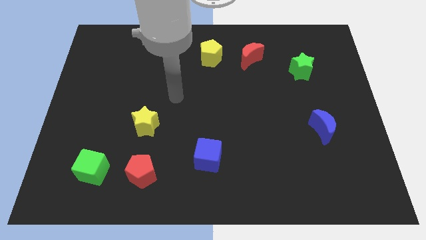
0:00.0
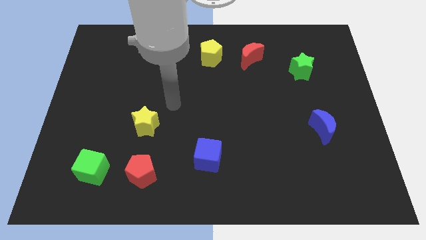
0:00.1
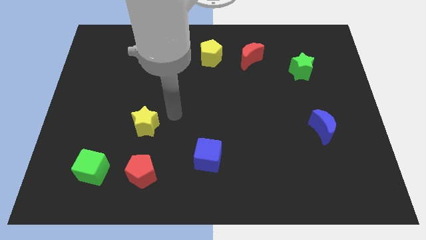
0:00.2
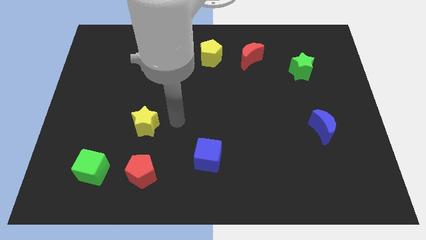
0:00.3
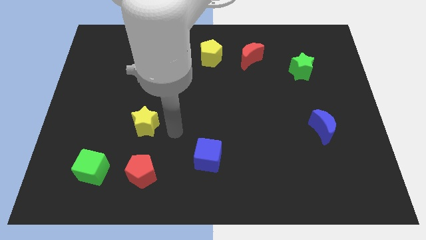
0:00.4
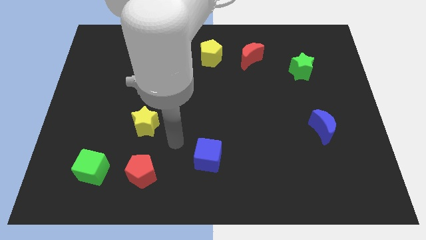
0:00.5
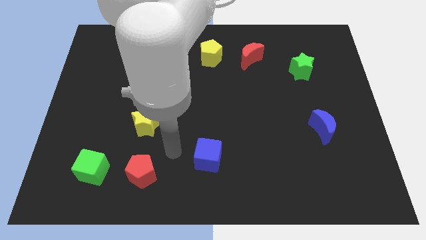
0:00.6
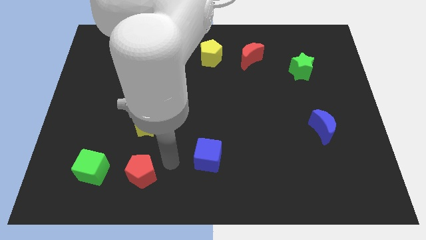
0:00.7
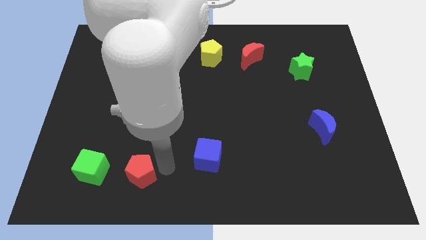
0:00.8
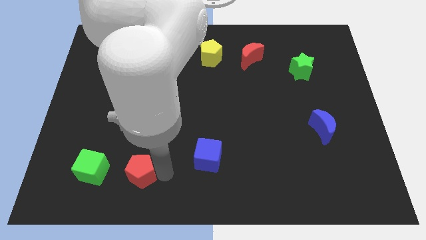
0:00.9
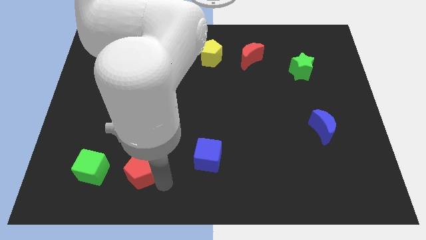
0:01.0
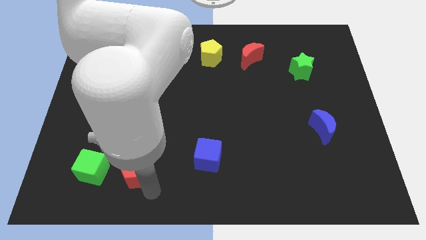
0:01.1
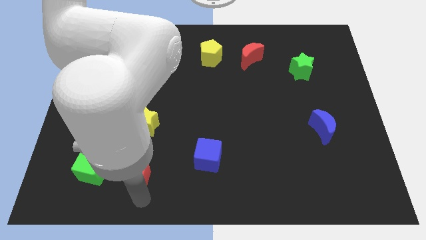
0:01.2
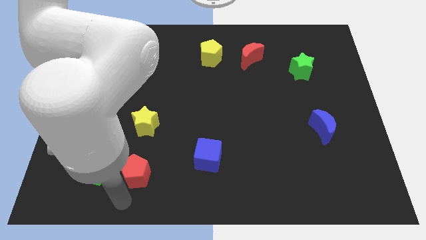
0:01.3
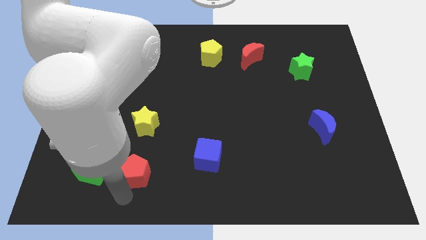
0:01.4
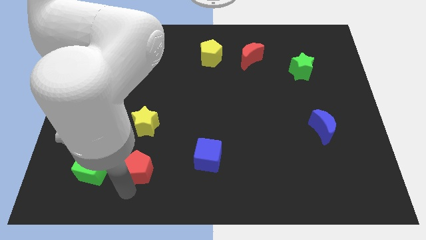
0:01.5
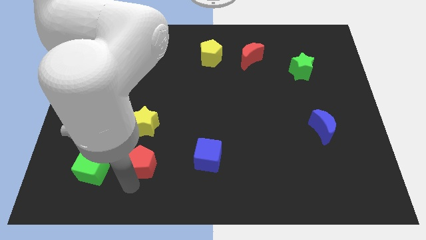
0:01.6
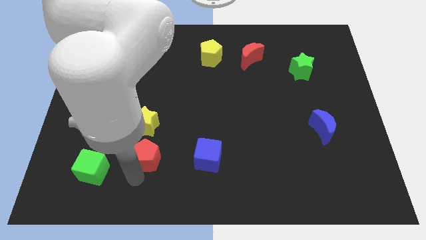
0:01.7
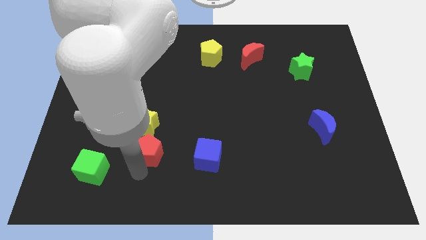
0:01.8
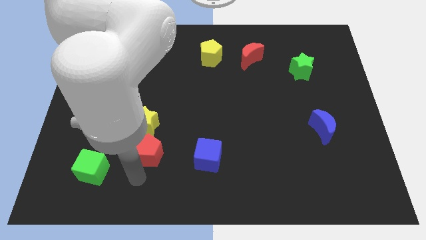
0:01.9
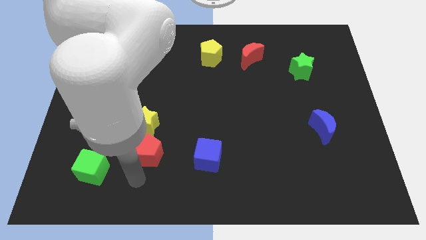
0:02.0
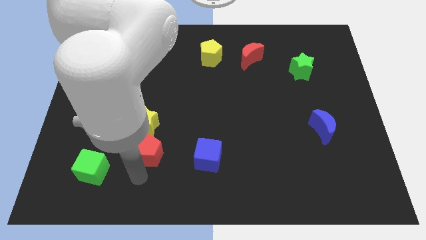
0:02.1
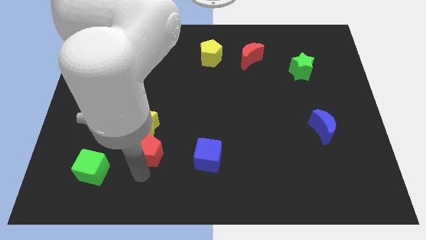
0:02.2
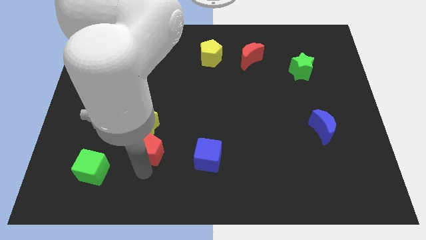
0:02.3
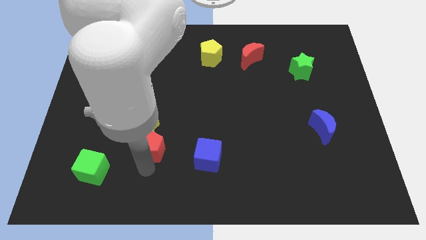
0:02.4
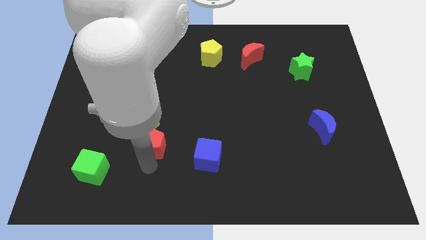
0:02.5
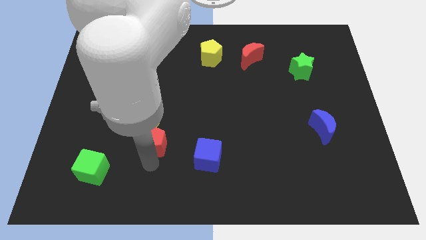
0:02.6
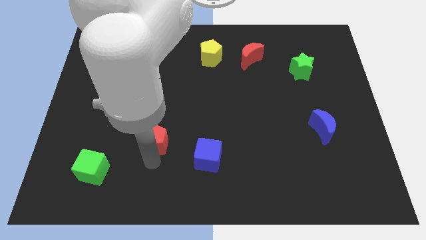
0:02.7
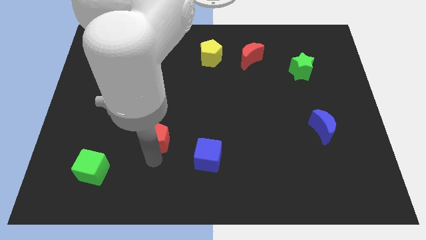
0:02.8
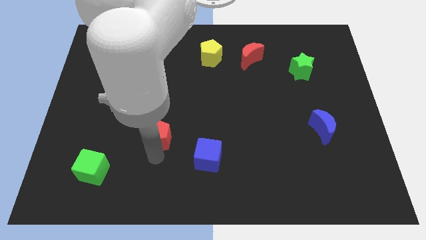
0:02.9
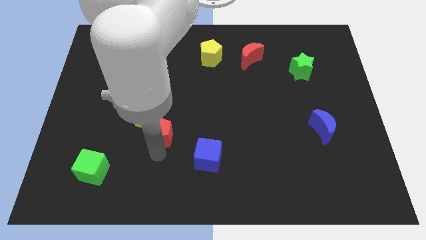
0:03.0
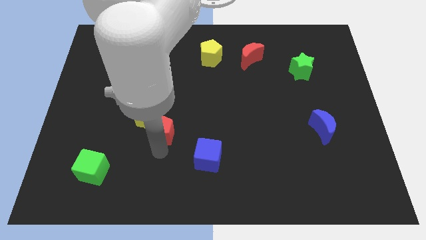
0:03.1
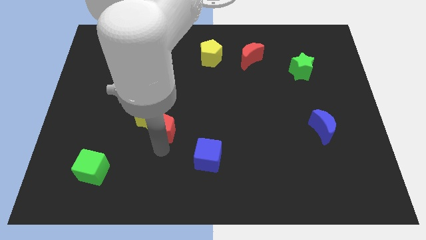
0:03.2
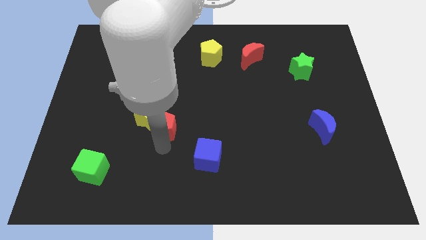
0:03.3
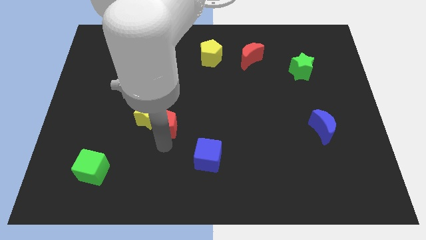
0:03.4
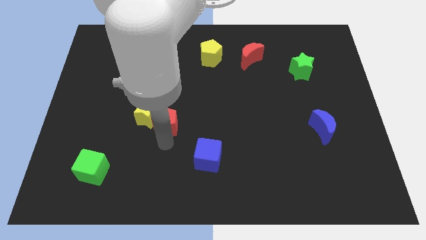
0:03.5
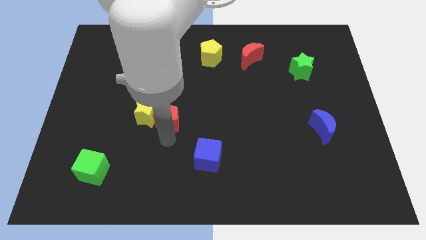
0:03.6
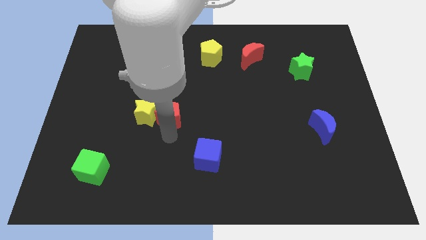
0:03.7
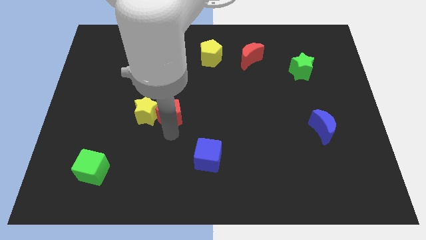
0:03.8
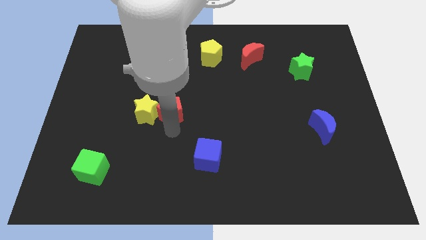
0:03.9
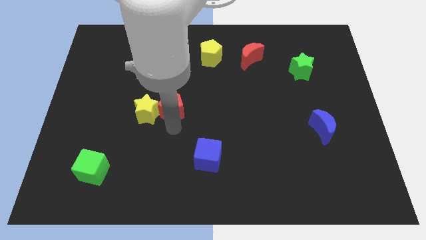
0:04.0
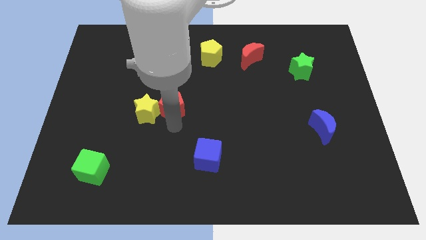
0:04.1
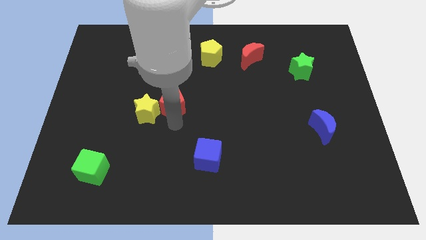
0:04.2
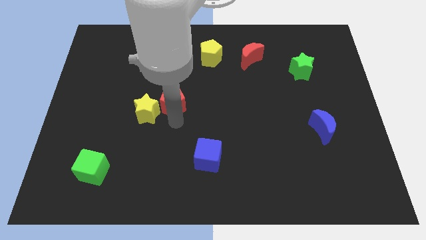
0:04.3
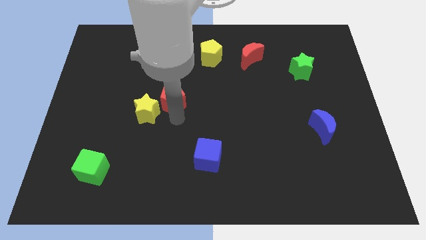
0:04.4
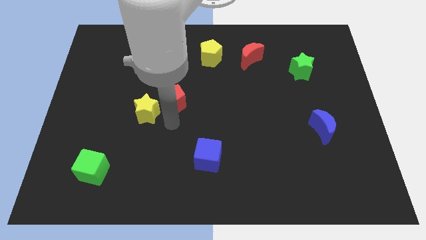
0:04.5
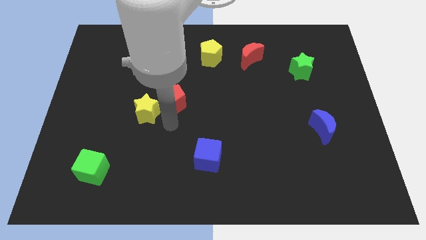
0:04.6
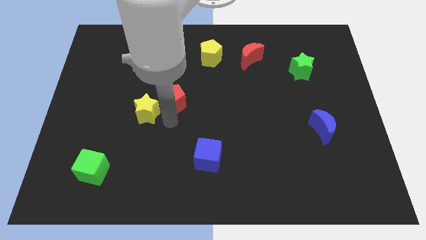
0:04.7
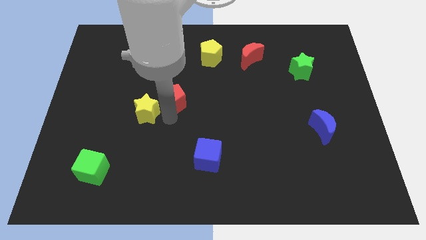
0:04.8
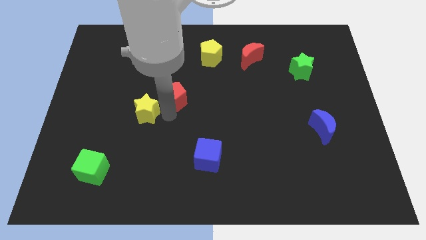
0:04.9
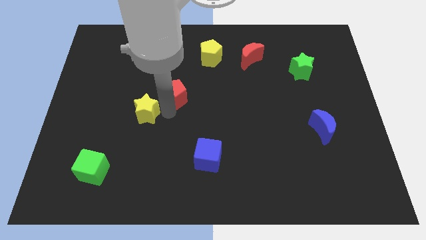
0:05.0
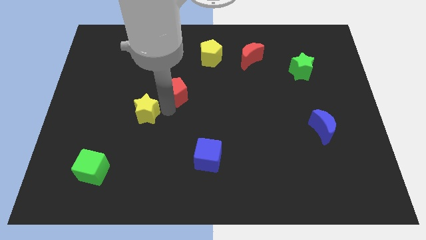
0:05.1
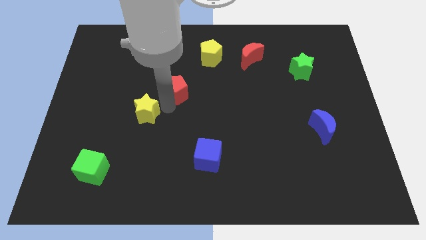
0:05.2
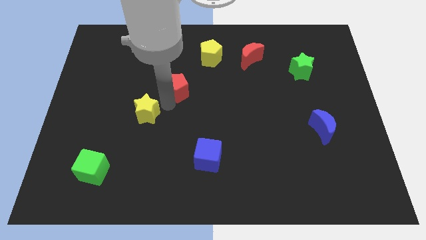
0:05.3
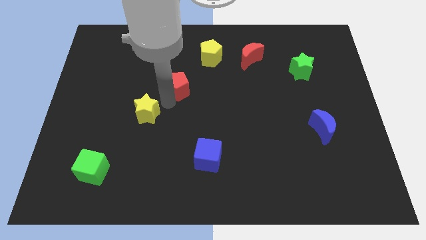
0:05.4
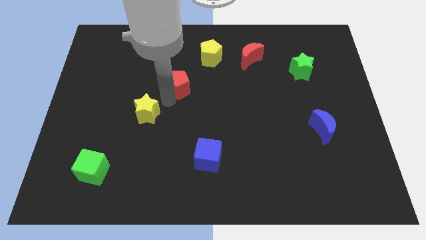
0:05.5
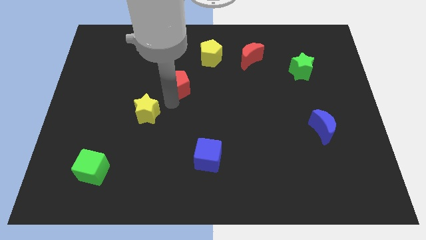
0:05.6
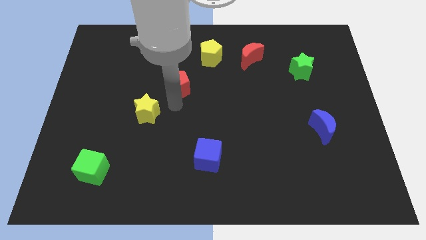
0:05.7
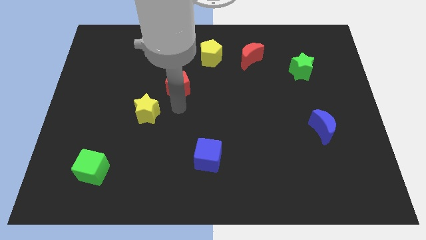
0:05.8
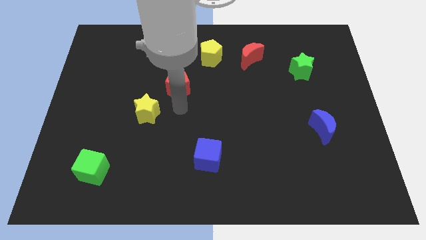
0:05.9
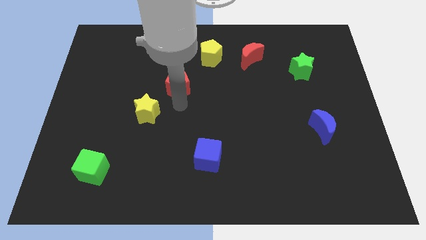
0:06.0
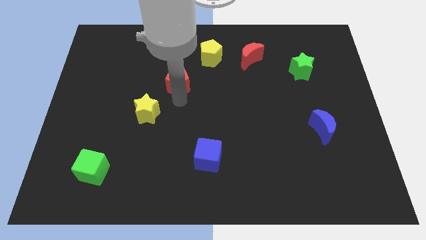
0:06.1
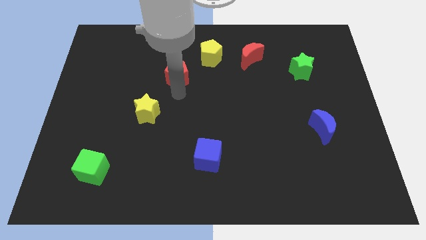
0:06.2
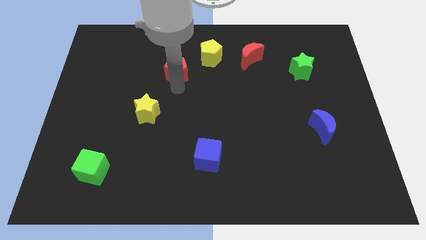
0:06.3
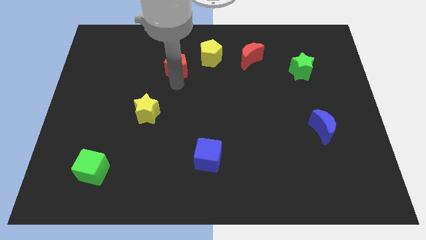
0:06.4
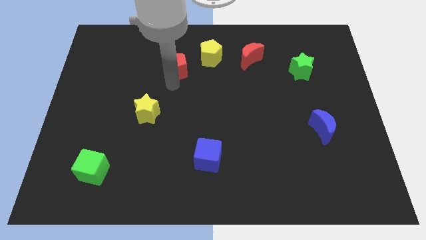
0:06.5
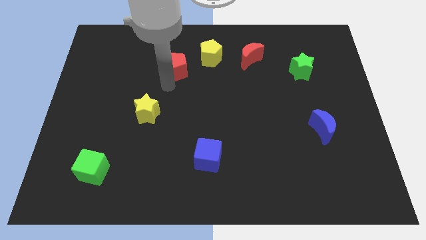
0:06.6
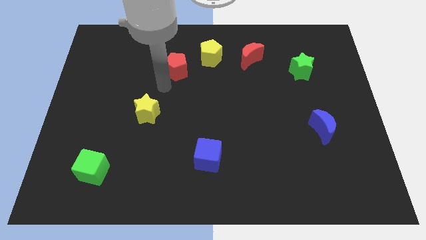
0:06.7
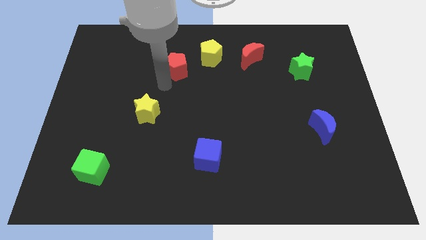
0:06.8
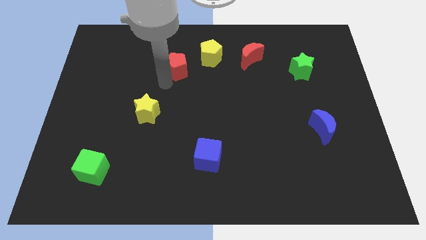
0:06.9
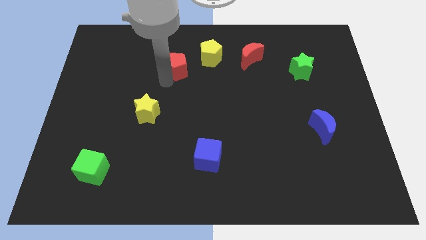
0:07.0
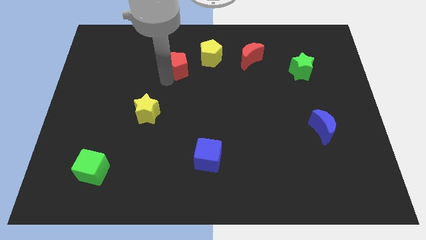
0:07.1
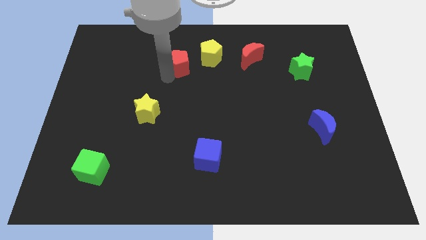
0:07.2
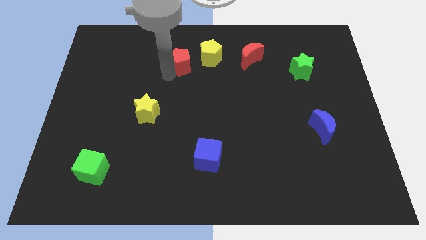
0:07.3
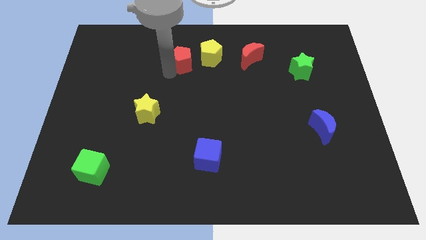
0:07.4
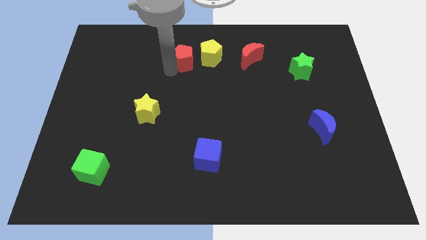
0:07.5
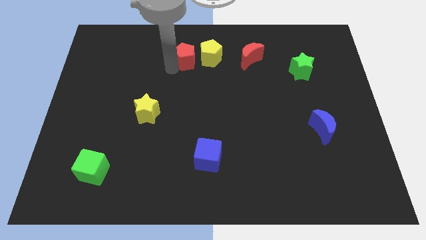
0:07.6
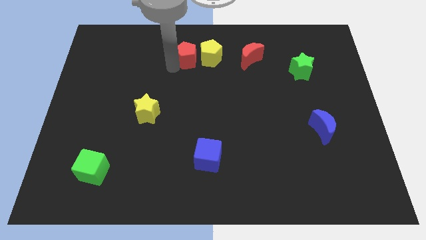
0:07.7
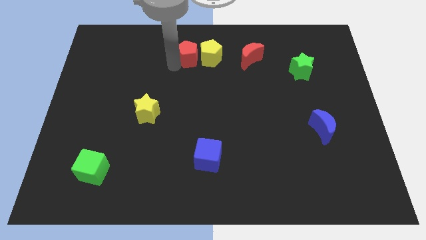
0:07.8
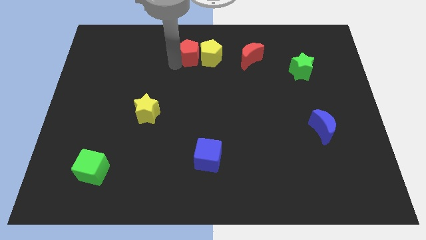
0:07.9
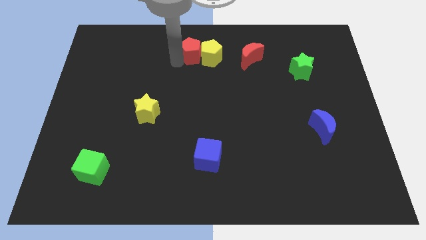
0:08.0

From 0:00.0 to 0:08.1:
push the red pentagon to the top side
